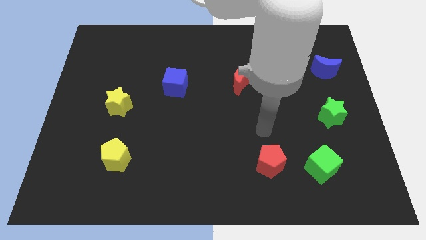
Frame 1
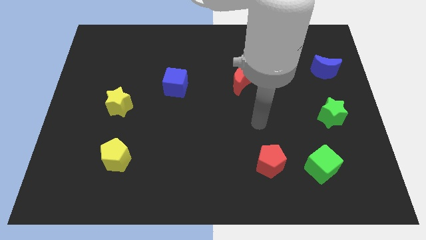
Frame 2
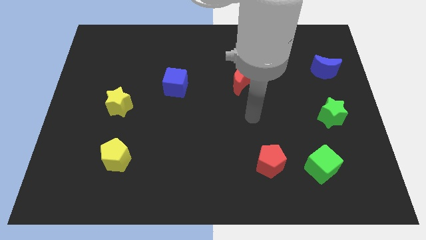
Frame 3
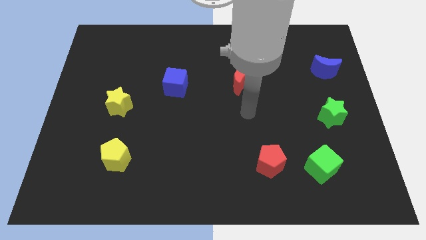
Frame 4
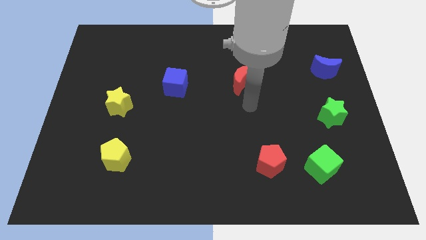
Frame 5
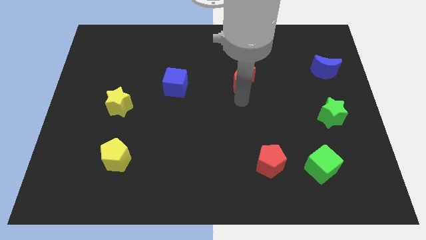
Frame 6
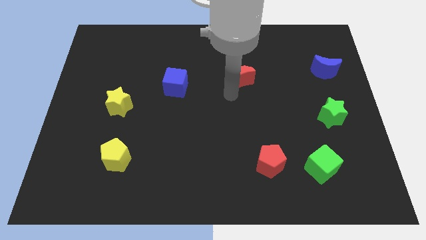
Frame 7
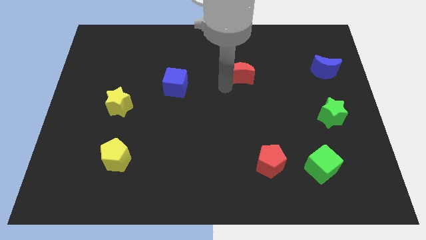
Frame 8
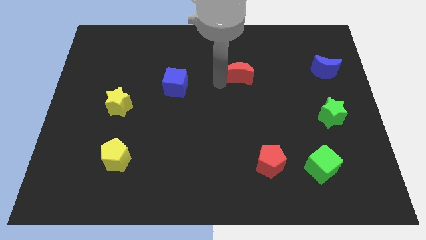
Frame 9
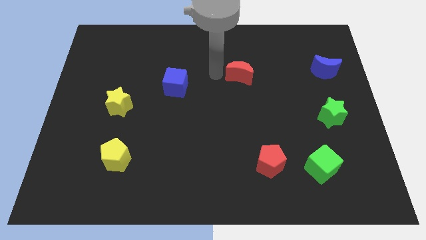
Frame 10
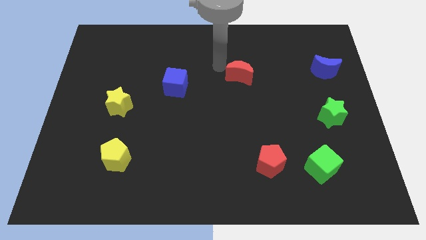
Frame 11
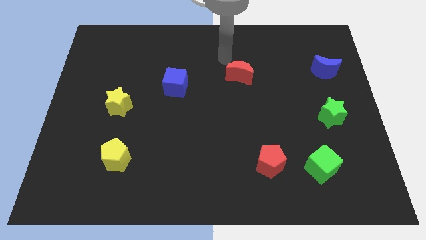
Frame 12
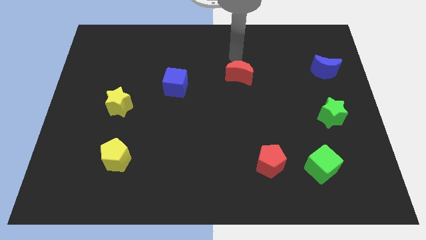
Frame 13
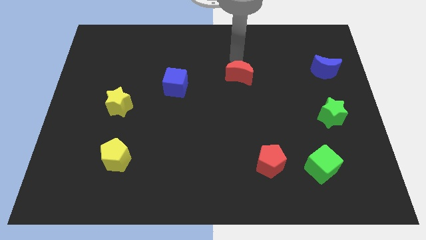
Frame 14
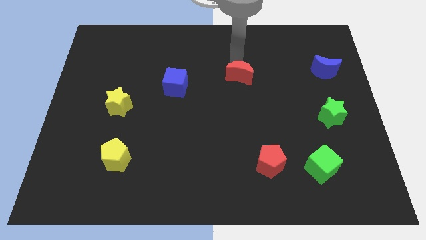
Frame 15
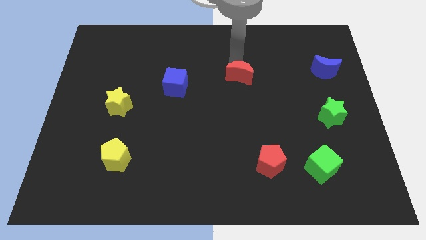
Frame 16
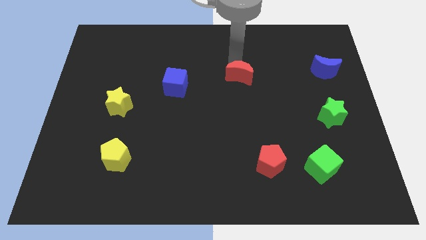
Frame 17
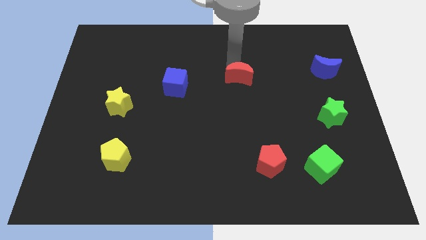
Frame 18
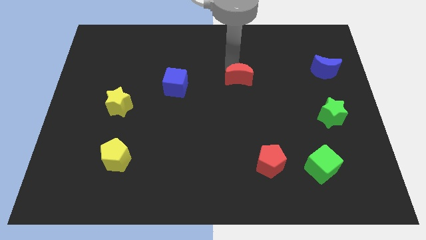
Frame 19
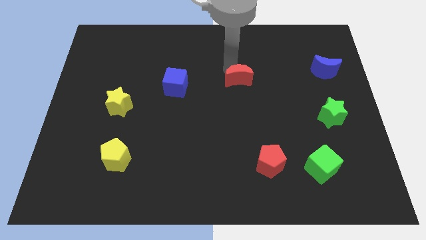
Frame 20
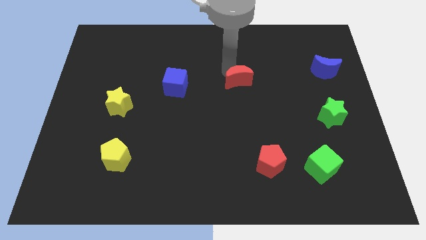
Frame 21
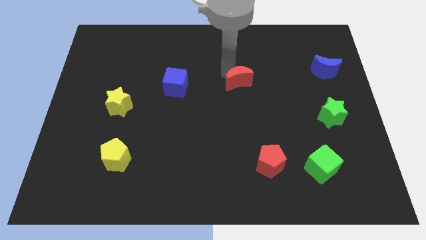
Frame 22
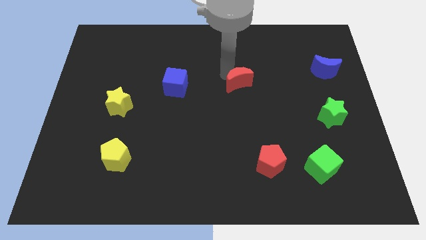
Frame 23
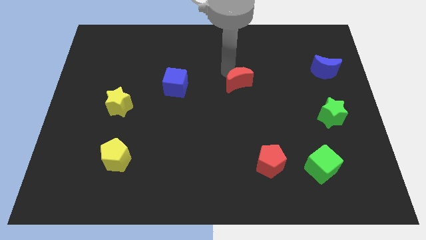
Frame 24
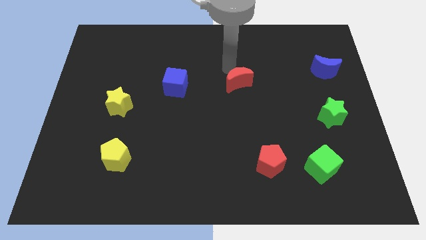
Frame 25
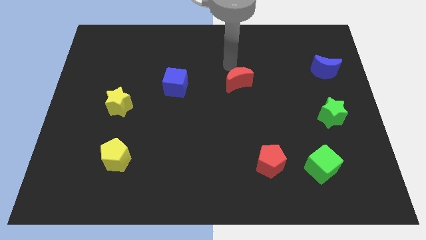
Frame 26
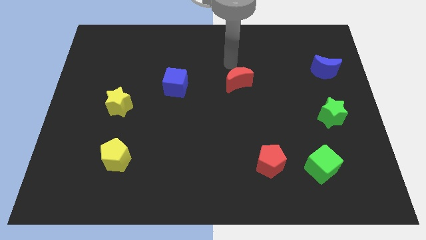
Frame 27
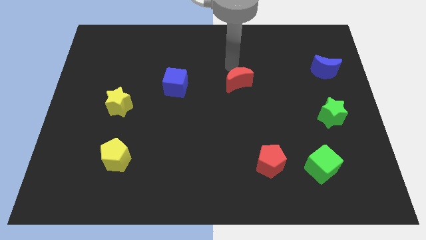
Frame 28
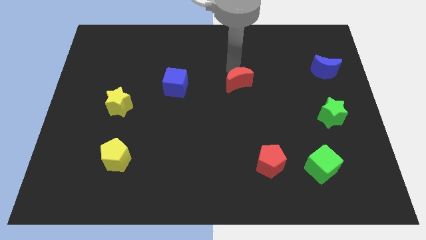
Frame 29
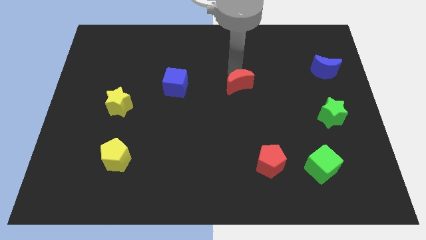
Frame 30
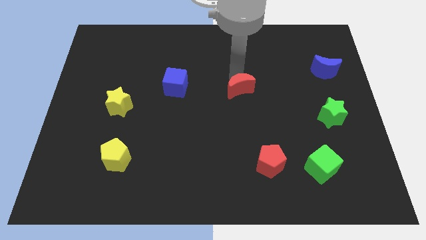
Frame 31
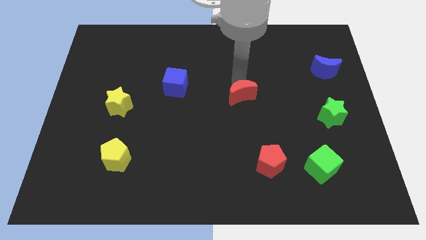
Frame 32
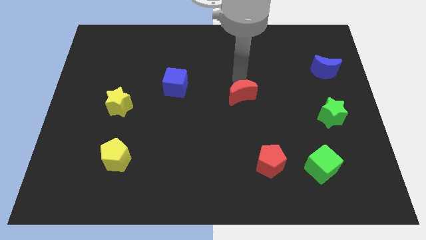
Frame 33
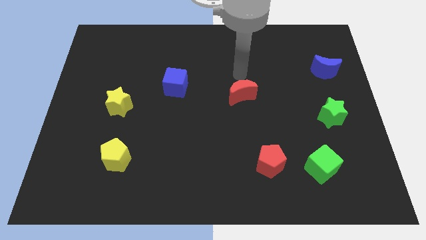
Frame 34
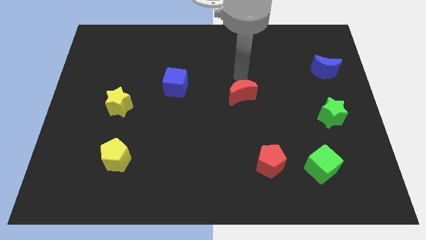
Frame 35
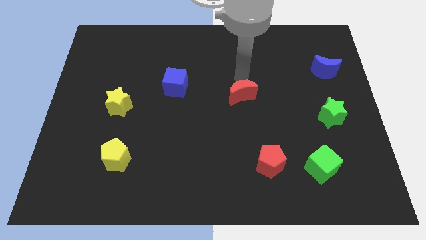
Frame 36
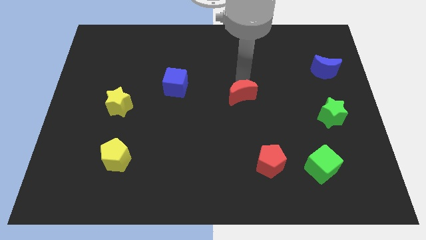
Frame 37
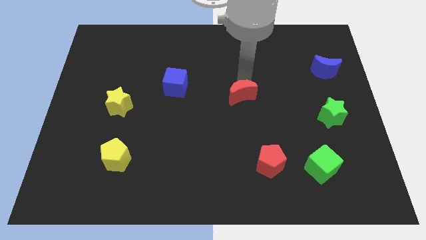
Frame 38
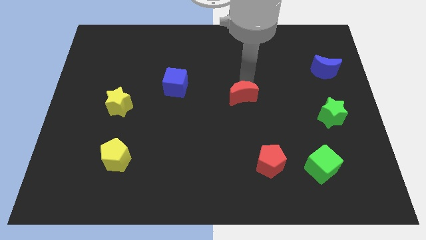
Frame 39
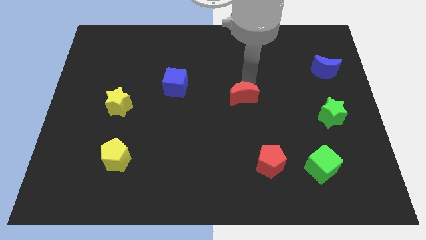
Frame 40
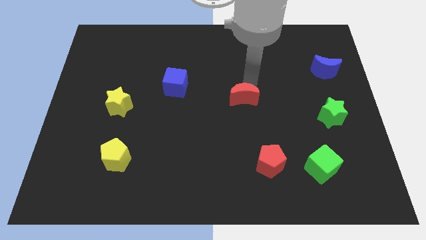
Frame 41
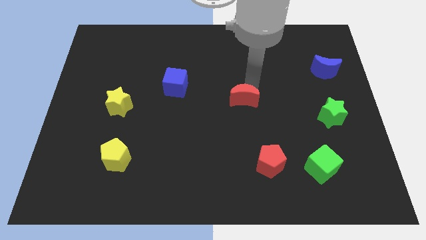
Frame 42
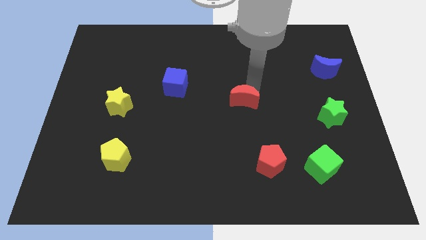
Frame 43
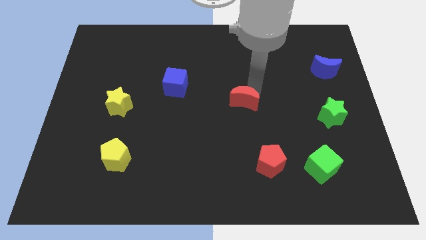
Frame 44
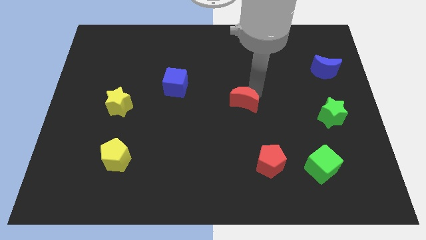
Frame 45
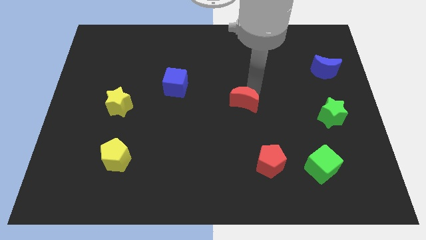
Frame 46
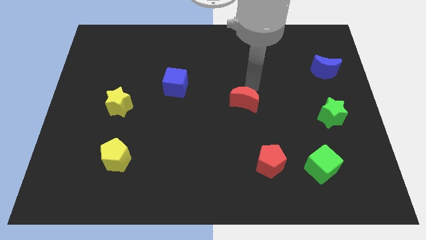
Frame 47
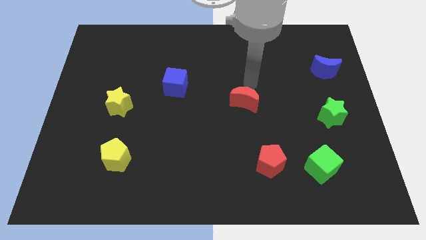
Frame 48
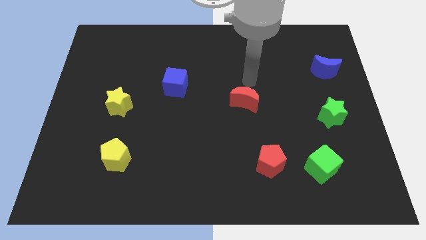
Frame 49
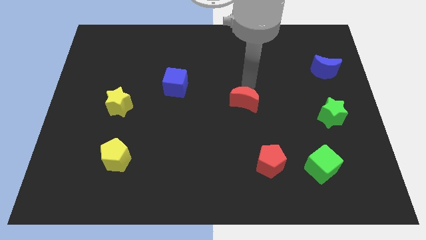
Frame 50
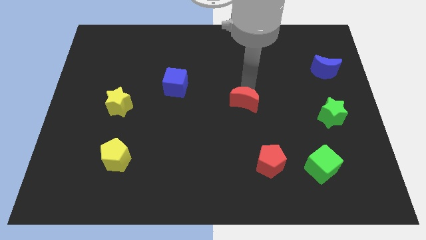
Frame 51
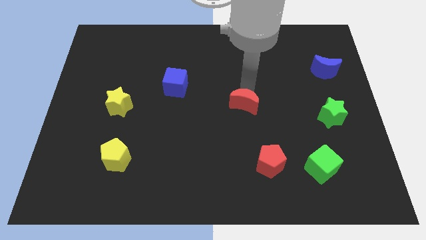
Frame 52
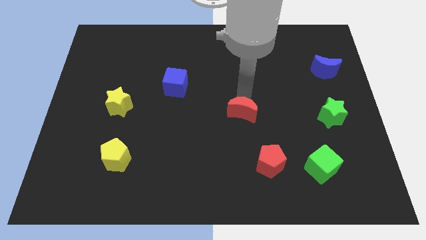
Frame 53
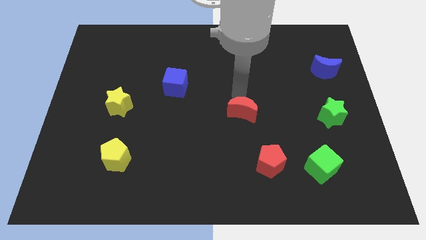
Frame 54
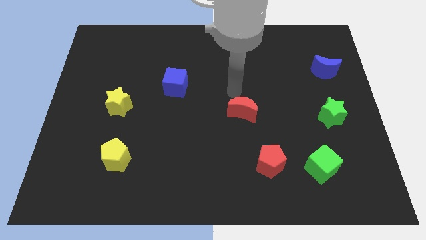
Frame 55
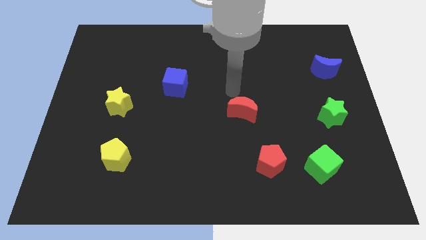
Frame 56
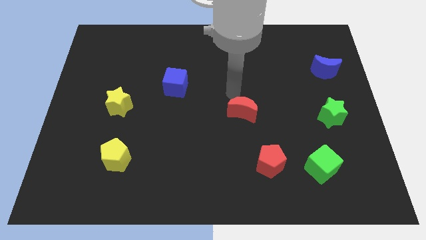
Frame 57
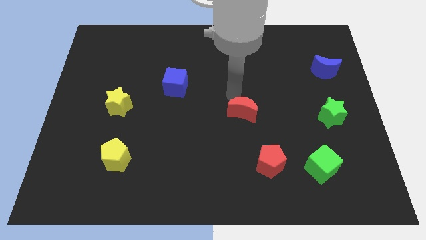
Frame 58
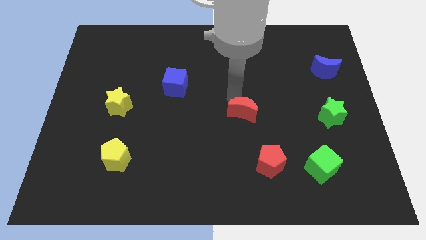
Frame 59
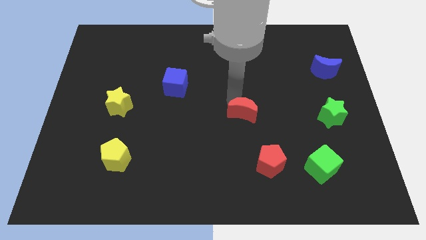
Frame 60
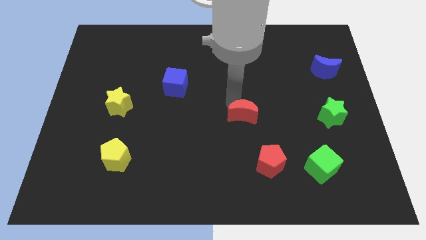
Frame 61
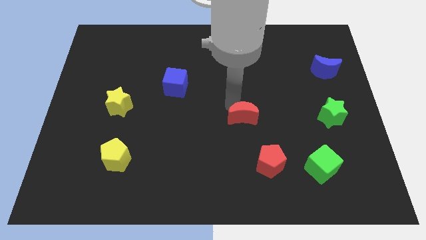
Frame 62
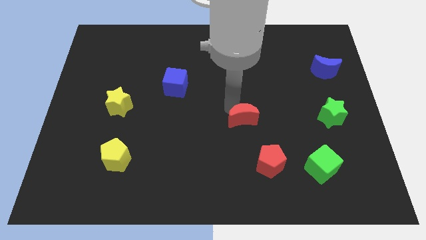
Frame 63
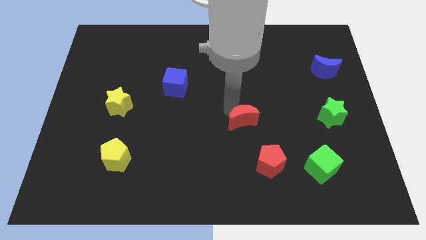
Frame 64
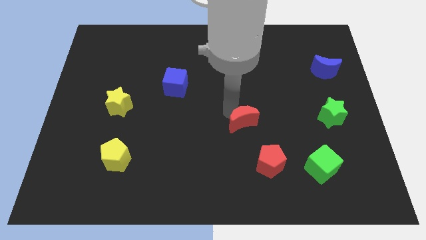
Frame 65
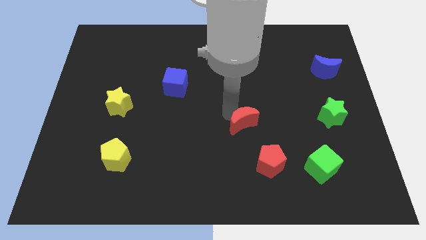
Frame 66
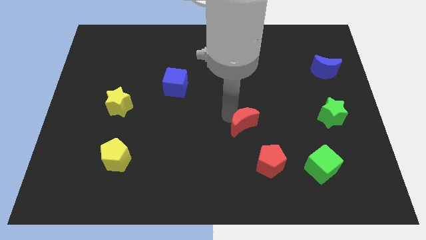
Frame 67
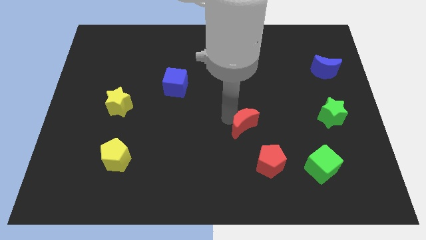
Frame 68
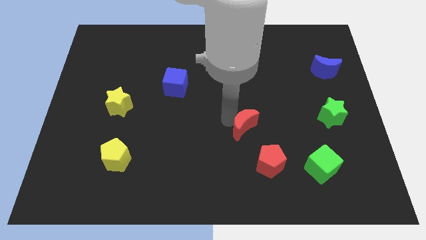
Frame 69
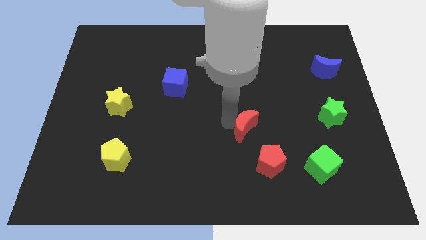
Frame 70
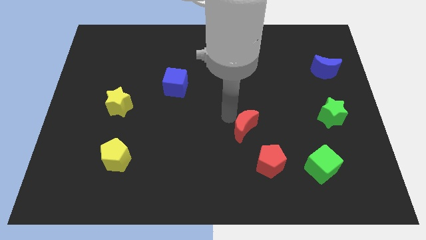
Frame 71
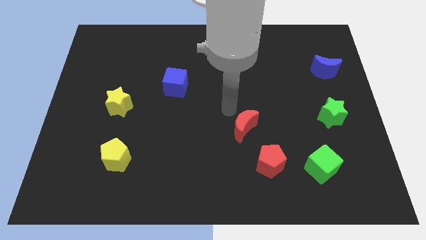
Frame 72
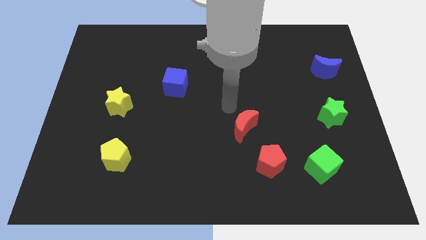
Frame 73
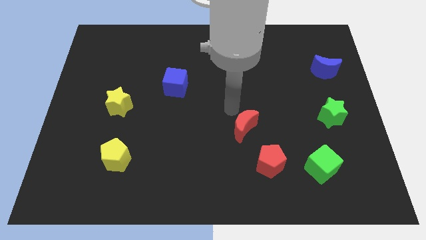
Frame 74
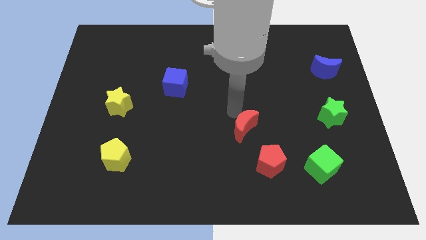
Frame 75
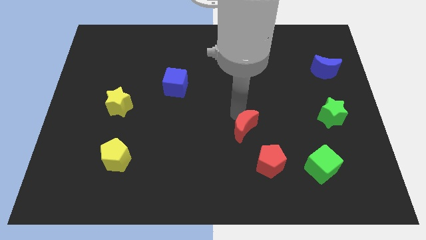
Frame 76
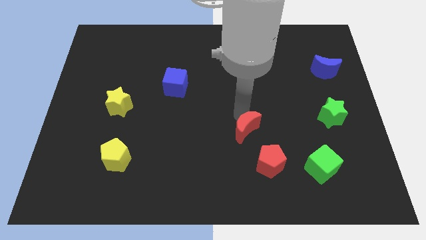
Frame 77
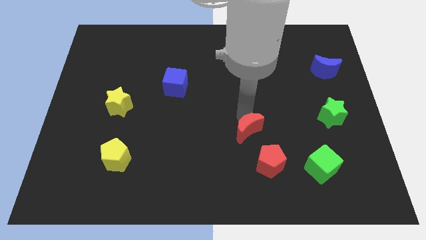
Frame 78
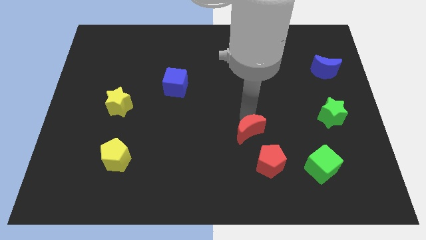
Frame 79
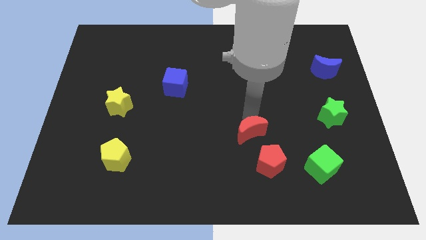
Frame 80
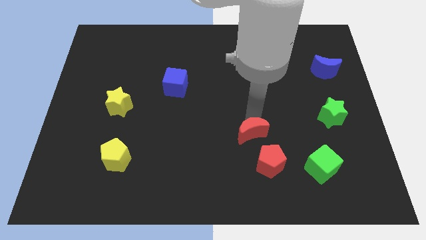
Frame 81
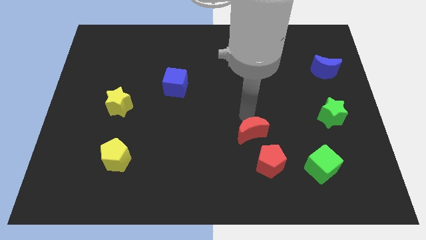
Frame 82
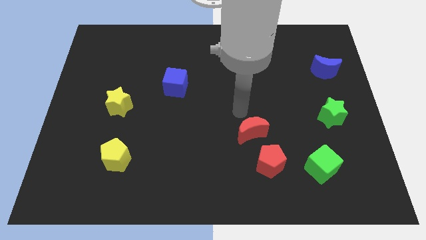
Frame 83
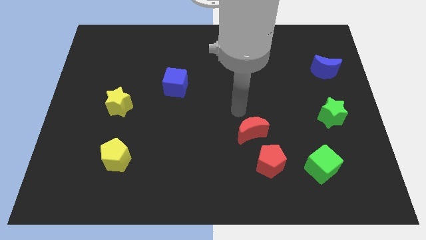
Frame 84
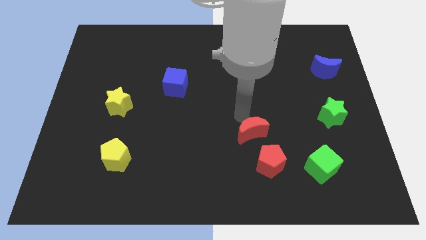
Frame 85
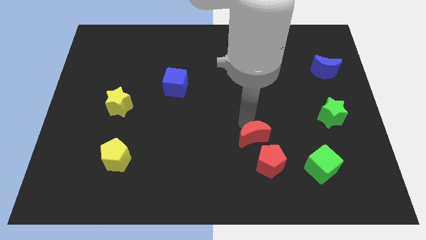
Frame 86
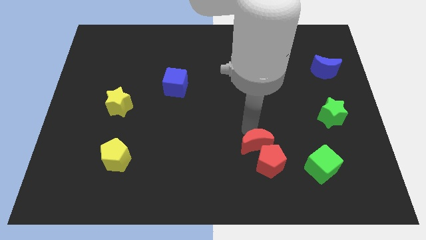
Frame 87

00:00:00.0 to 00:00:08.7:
slide the red moon to the red pentagon
